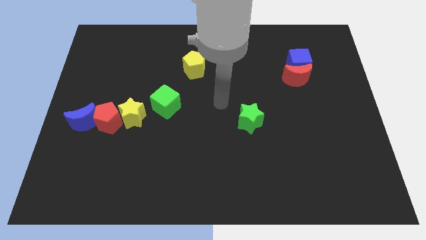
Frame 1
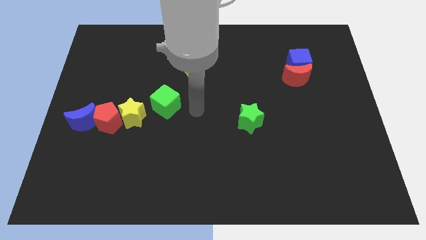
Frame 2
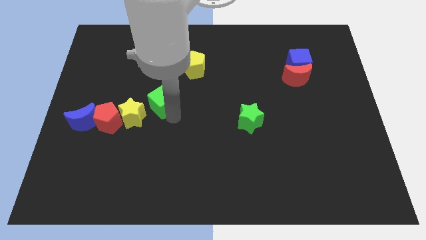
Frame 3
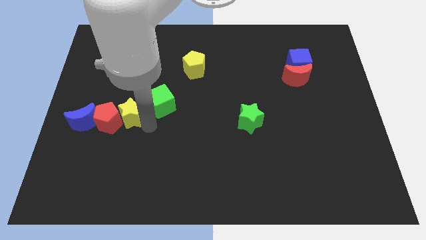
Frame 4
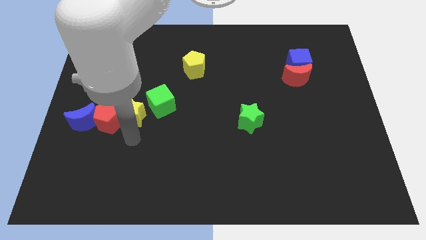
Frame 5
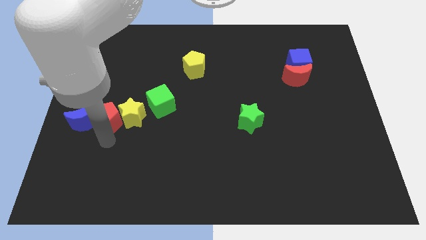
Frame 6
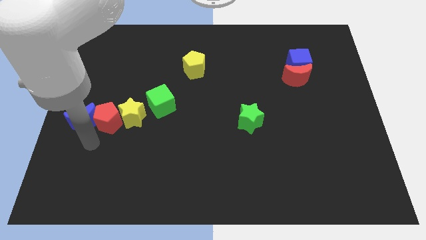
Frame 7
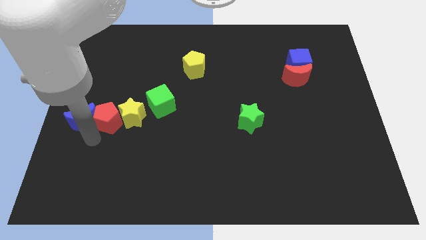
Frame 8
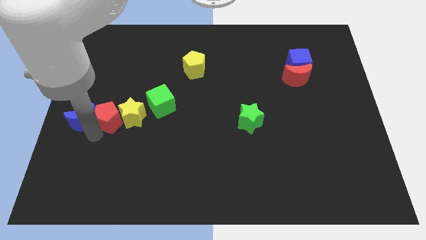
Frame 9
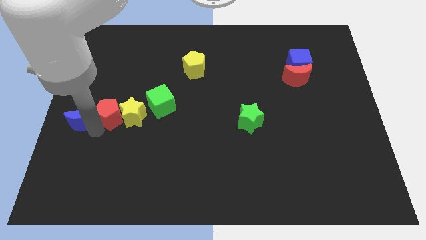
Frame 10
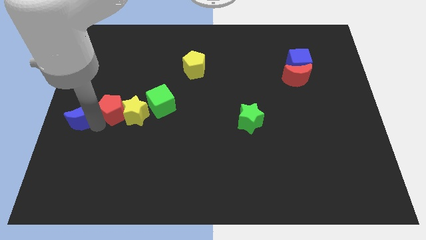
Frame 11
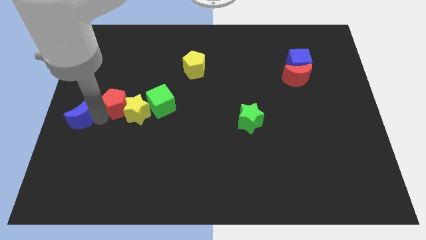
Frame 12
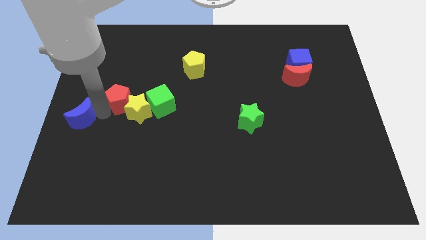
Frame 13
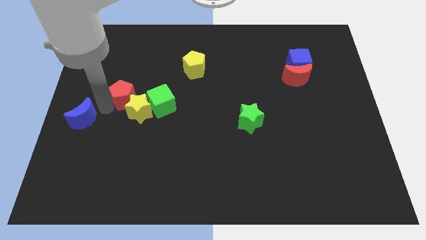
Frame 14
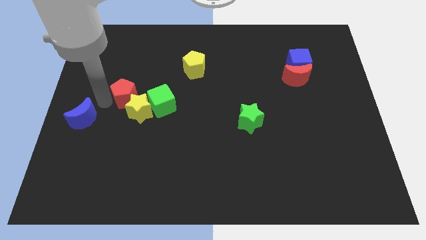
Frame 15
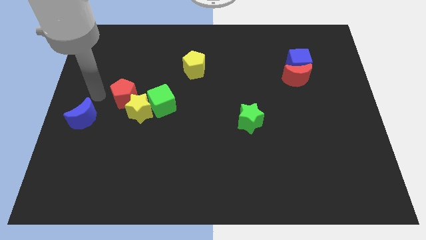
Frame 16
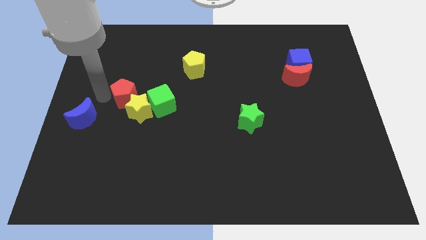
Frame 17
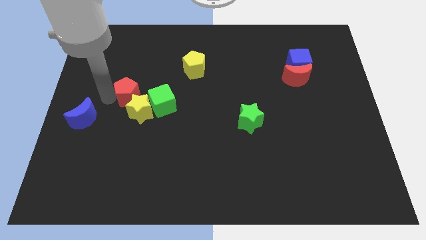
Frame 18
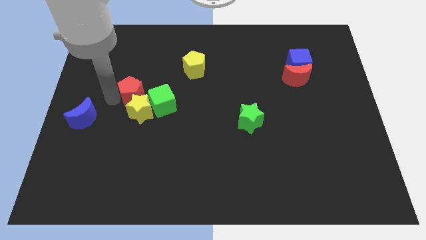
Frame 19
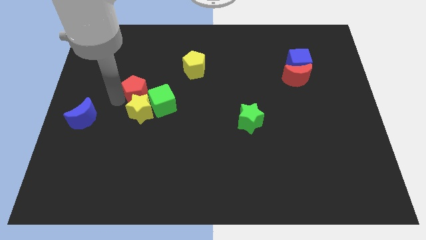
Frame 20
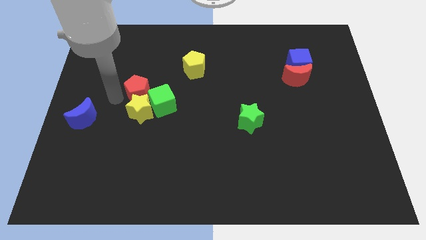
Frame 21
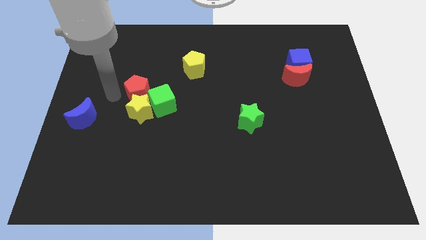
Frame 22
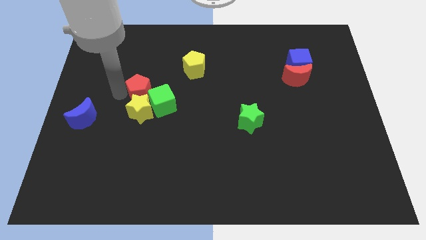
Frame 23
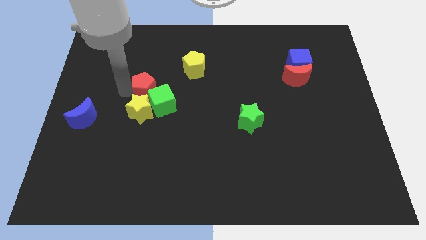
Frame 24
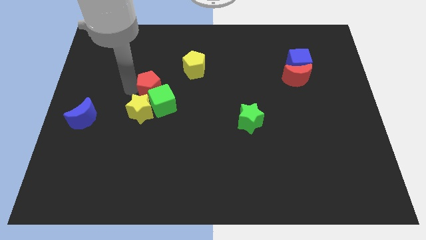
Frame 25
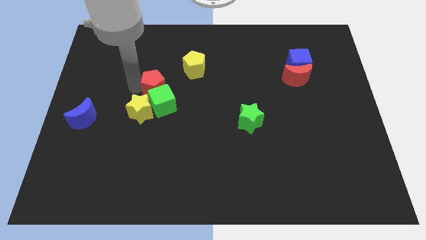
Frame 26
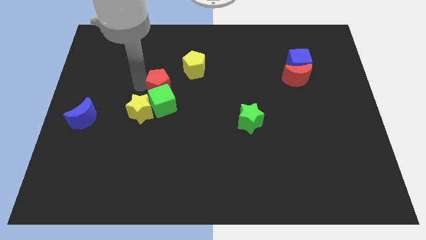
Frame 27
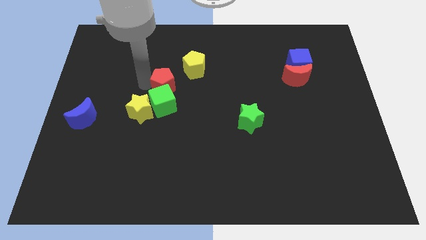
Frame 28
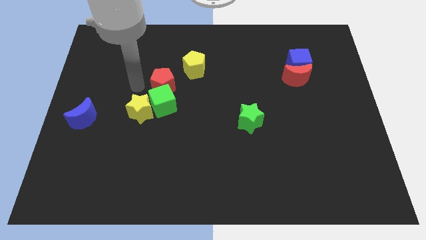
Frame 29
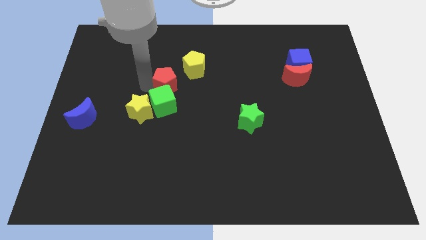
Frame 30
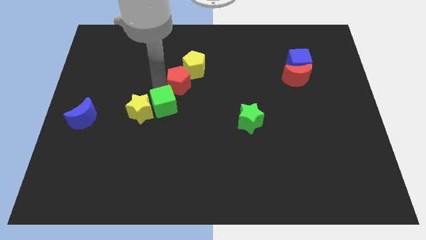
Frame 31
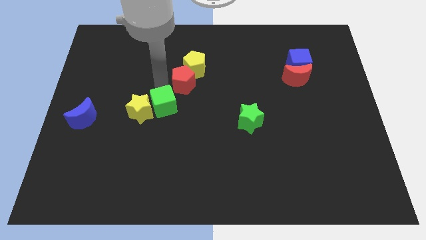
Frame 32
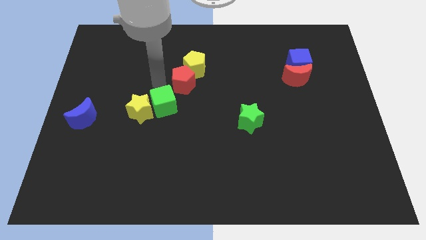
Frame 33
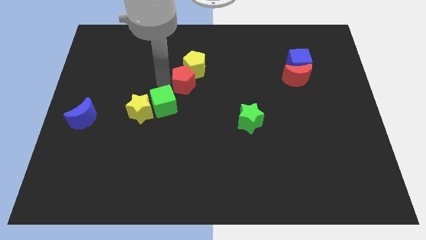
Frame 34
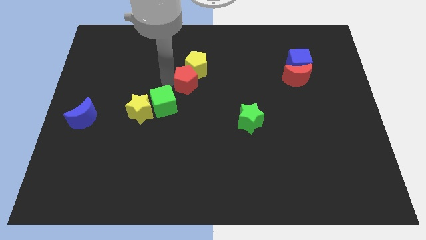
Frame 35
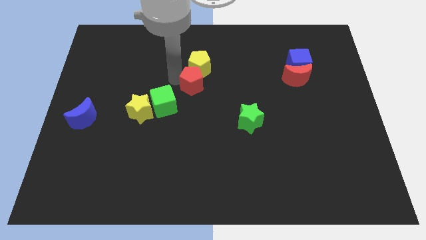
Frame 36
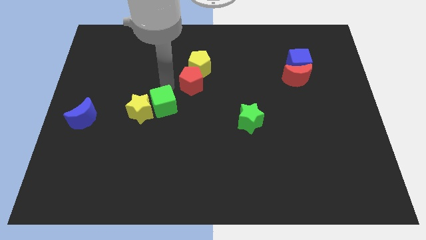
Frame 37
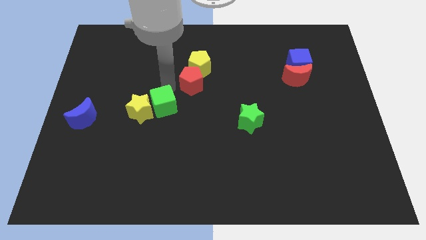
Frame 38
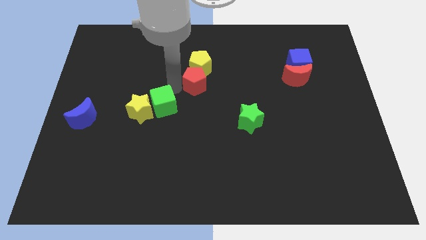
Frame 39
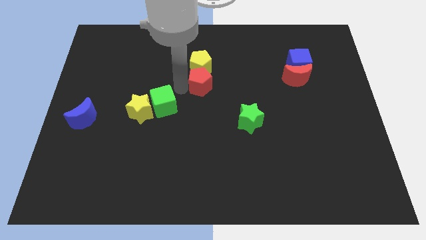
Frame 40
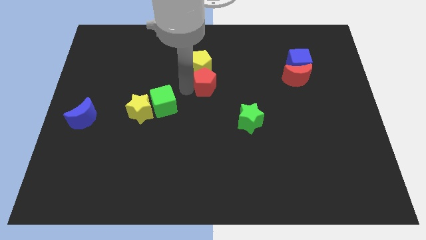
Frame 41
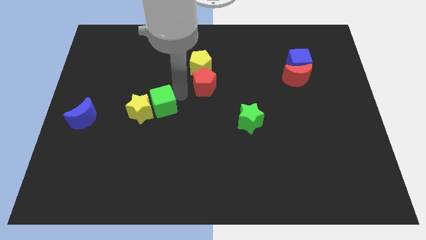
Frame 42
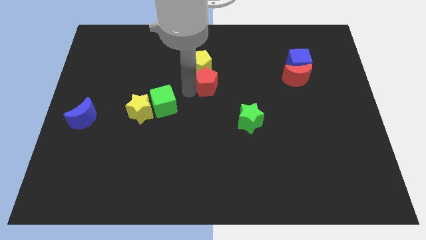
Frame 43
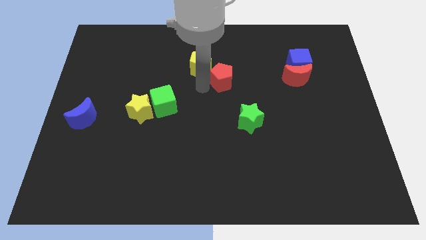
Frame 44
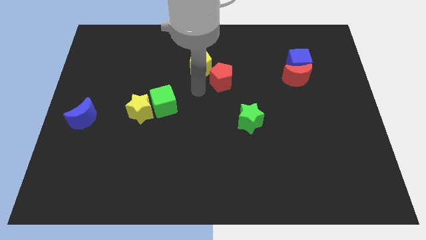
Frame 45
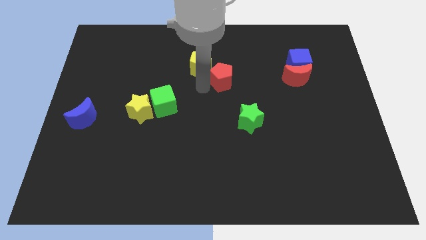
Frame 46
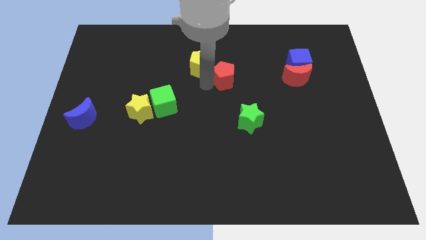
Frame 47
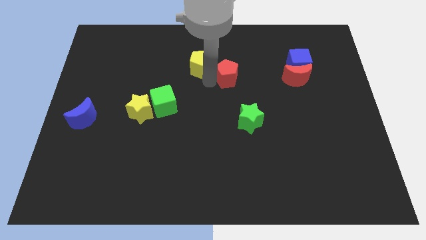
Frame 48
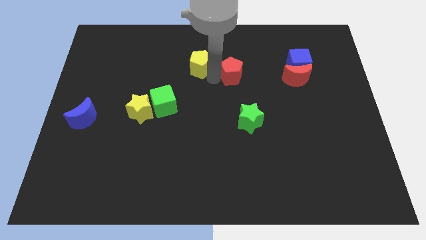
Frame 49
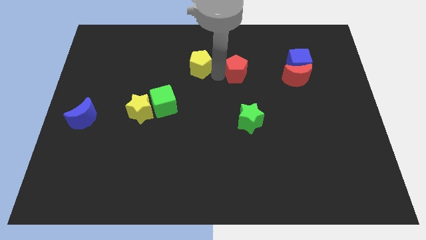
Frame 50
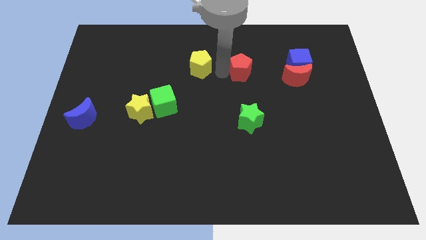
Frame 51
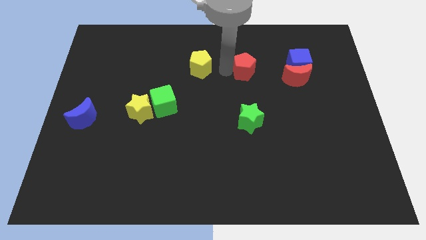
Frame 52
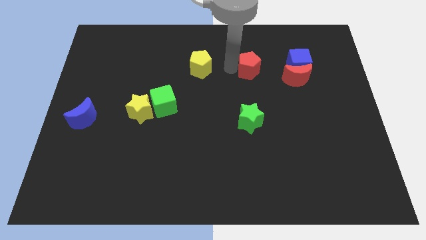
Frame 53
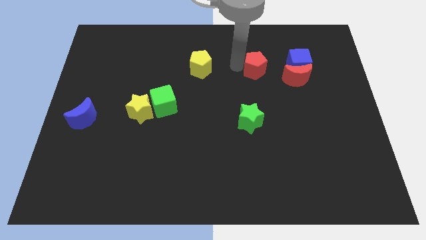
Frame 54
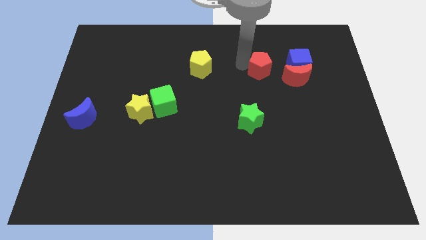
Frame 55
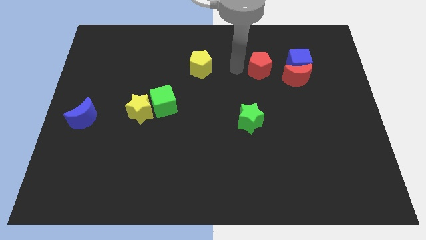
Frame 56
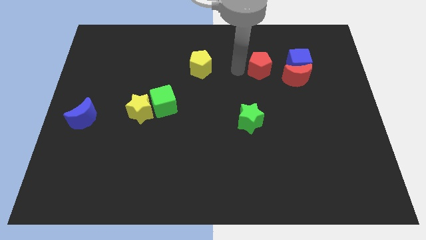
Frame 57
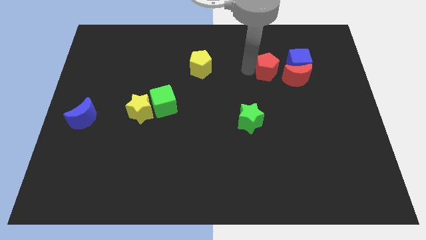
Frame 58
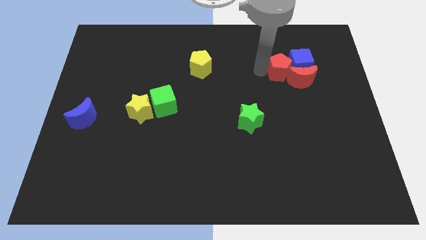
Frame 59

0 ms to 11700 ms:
slide the red pentagon close to the blue cube
